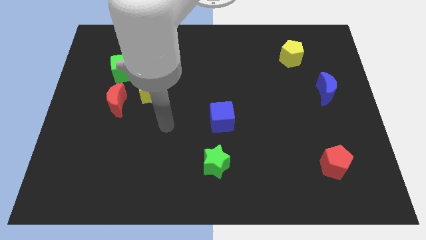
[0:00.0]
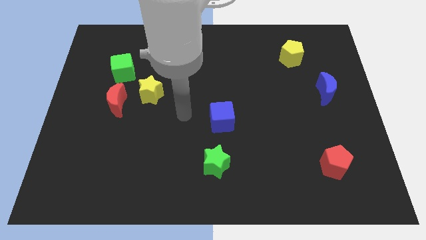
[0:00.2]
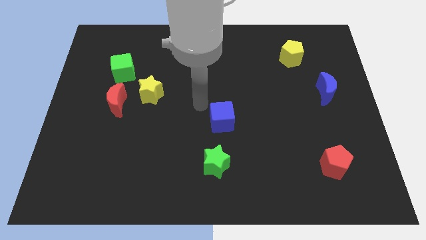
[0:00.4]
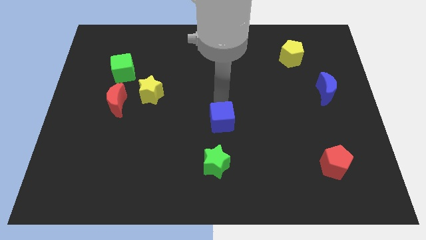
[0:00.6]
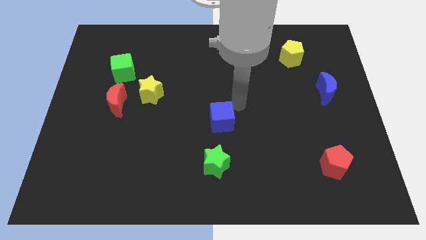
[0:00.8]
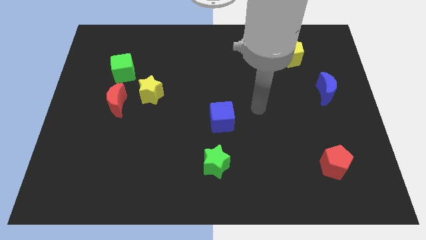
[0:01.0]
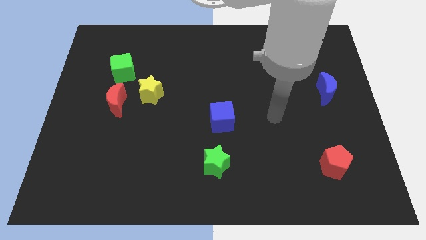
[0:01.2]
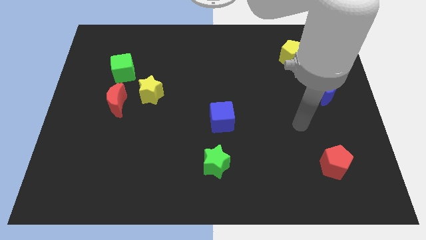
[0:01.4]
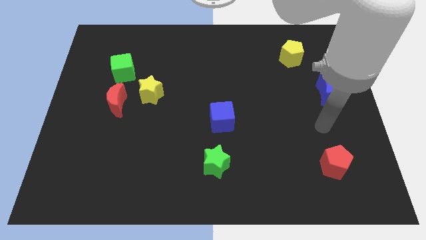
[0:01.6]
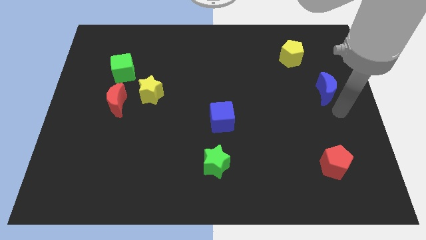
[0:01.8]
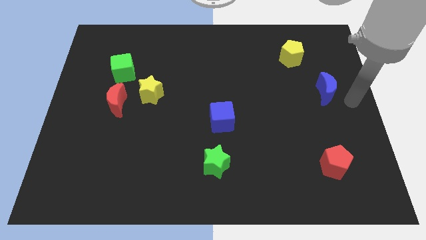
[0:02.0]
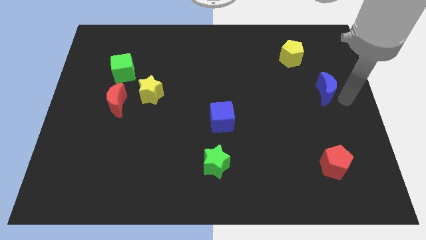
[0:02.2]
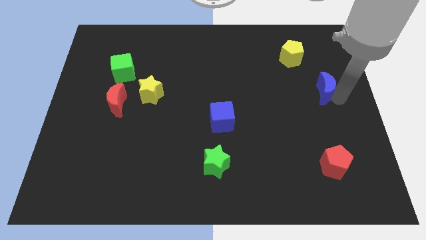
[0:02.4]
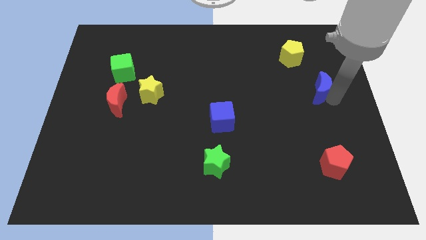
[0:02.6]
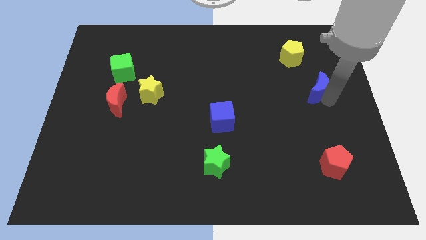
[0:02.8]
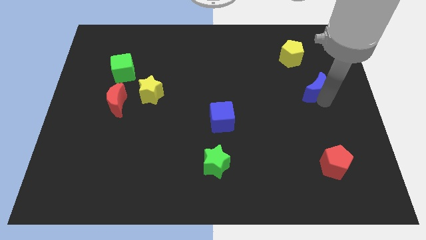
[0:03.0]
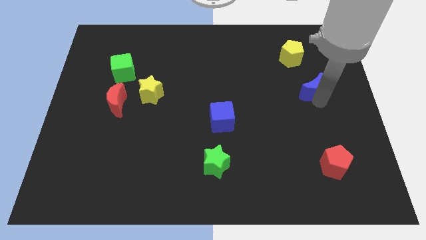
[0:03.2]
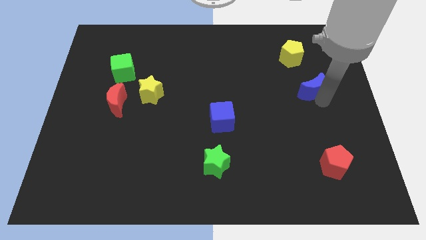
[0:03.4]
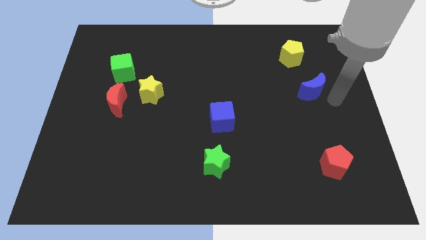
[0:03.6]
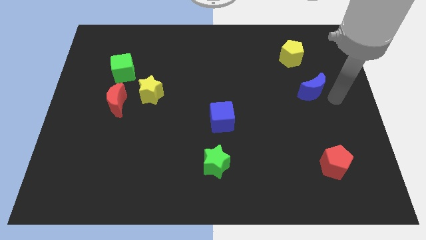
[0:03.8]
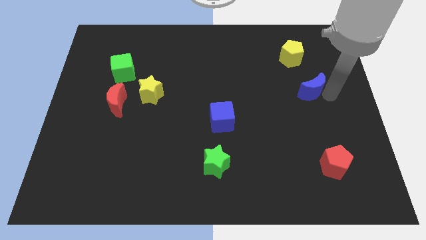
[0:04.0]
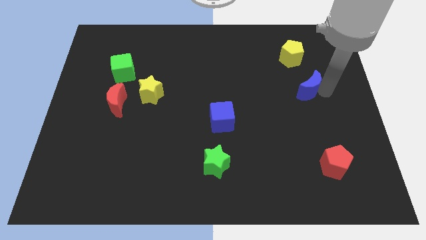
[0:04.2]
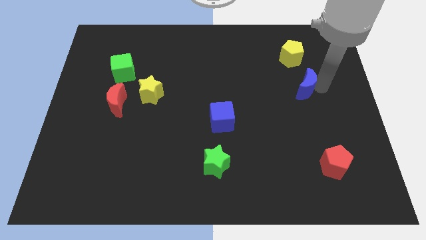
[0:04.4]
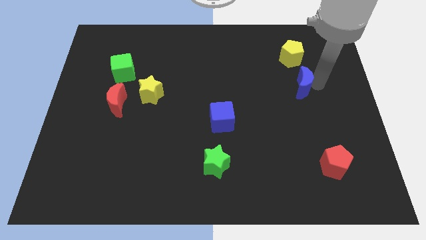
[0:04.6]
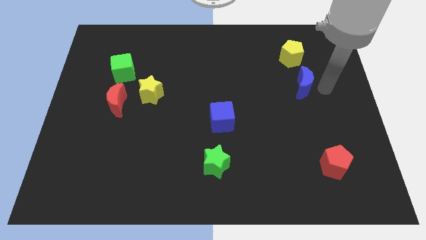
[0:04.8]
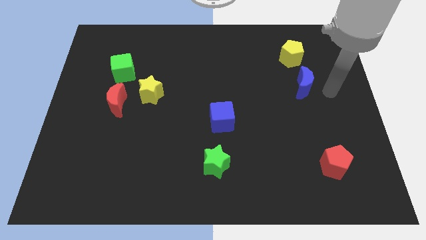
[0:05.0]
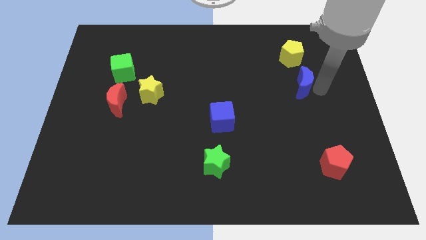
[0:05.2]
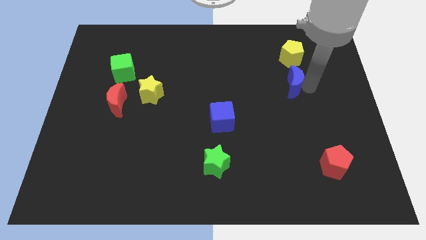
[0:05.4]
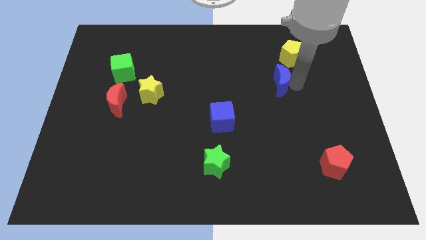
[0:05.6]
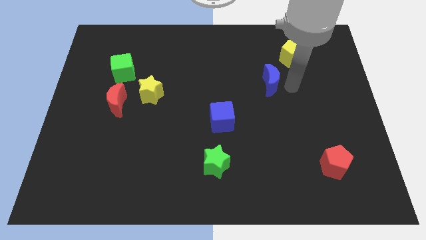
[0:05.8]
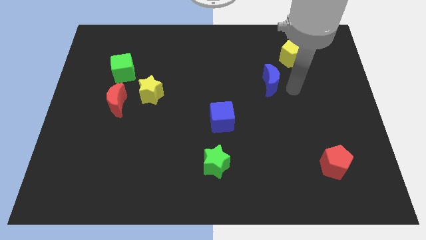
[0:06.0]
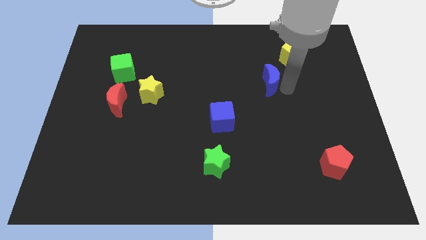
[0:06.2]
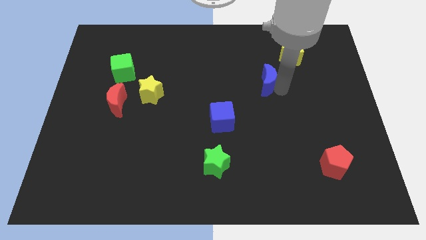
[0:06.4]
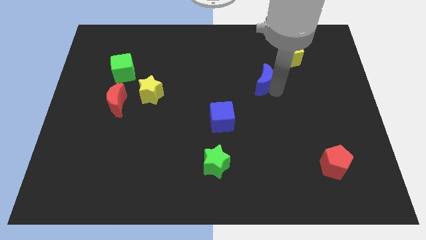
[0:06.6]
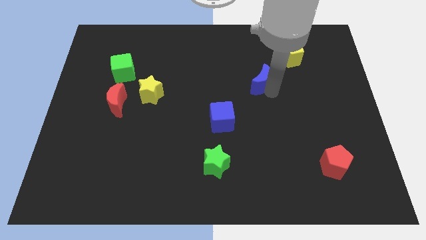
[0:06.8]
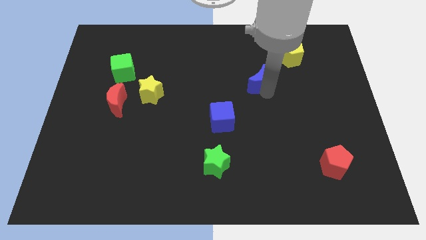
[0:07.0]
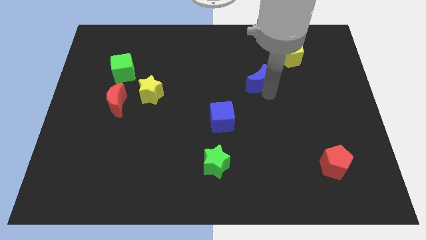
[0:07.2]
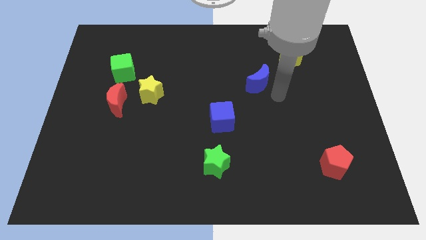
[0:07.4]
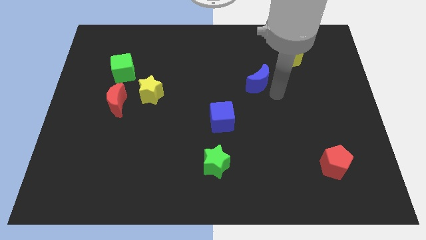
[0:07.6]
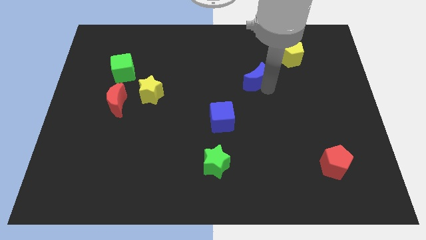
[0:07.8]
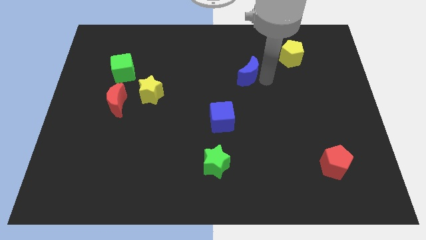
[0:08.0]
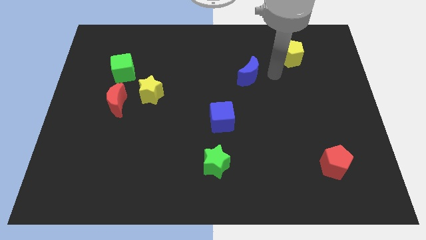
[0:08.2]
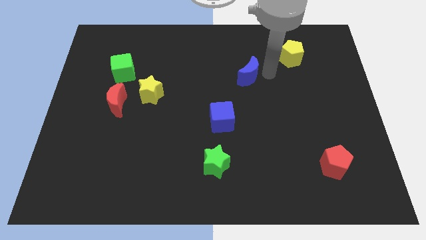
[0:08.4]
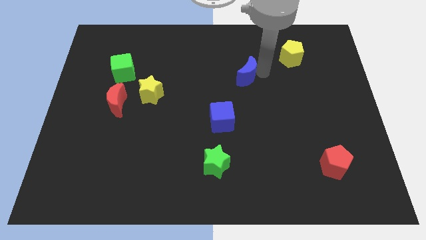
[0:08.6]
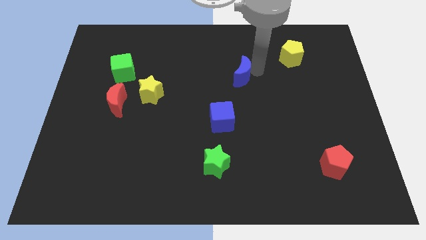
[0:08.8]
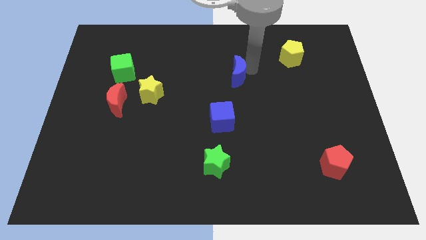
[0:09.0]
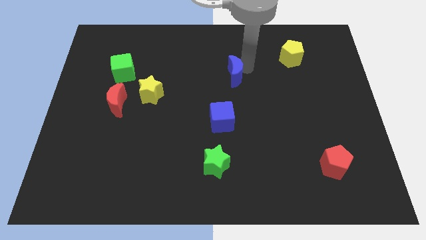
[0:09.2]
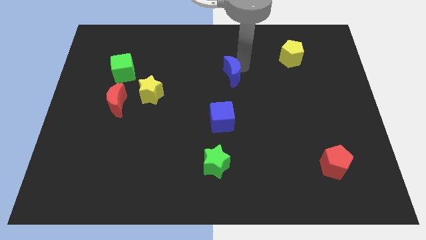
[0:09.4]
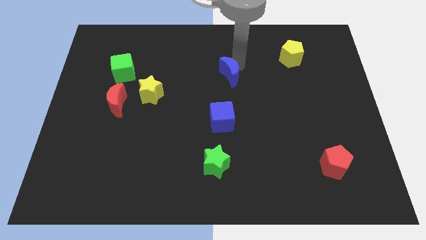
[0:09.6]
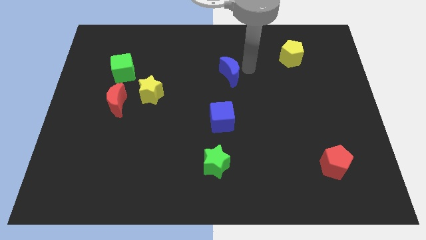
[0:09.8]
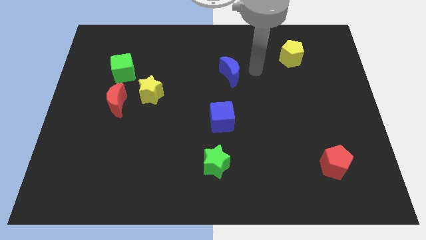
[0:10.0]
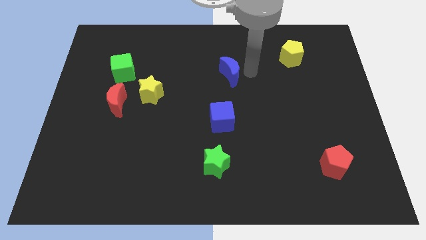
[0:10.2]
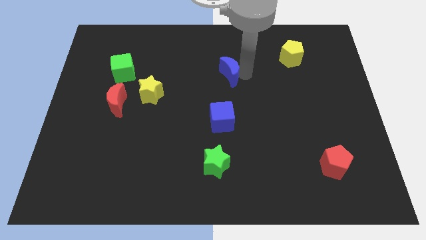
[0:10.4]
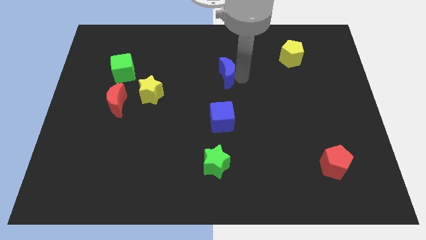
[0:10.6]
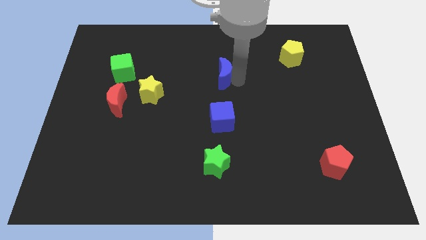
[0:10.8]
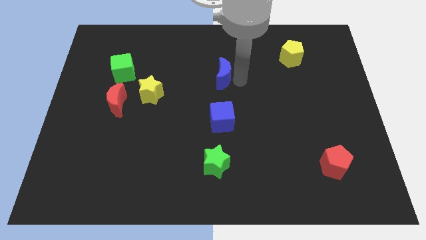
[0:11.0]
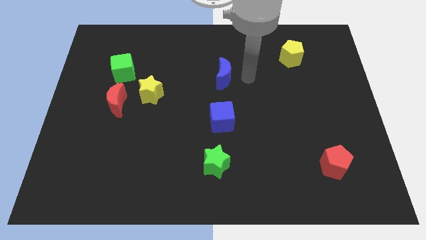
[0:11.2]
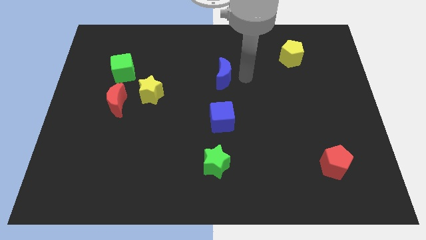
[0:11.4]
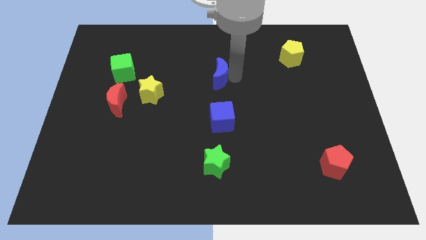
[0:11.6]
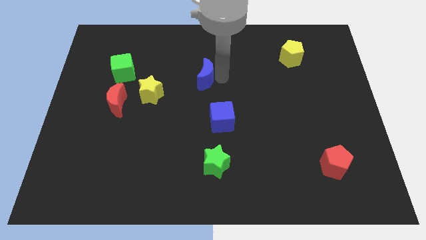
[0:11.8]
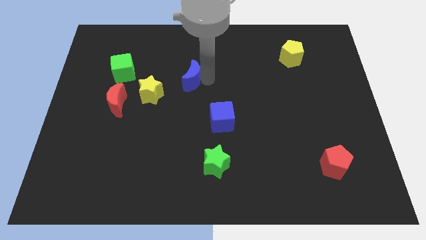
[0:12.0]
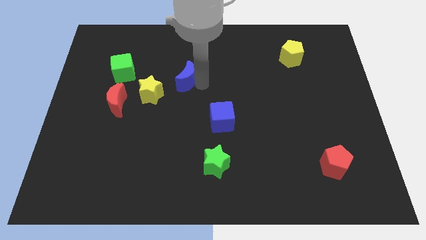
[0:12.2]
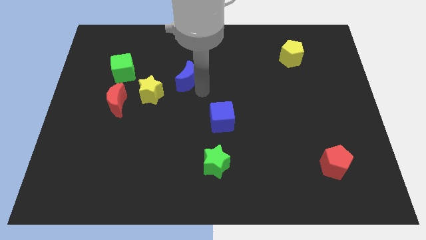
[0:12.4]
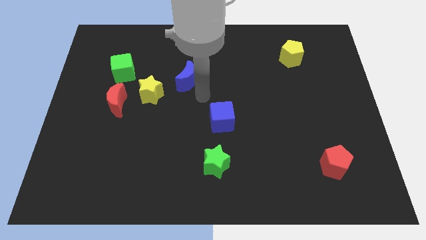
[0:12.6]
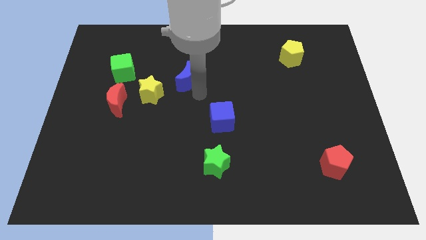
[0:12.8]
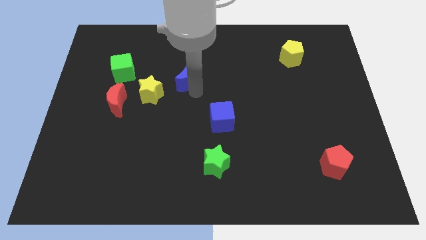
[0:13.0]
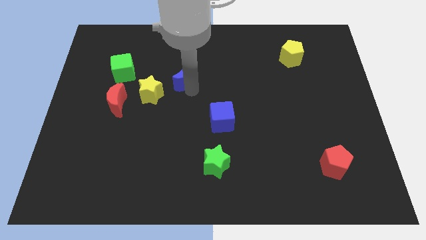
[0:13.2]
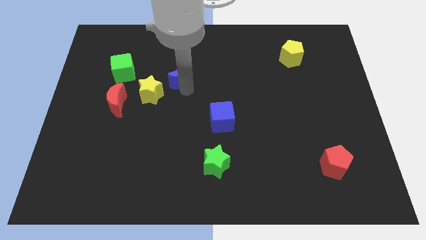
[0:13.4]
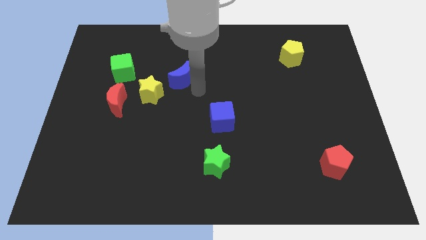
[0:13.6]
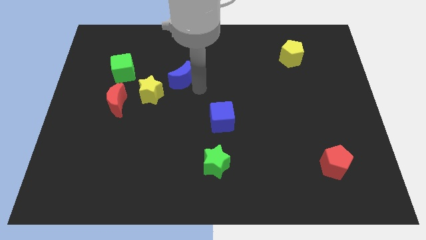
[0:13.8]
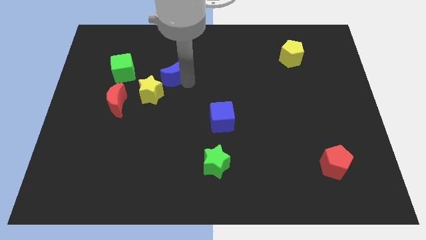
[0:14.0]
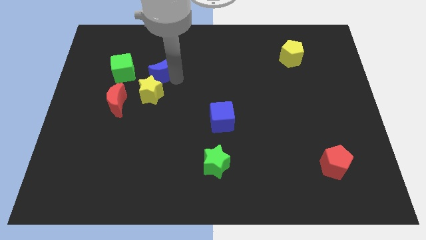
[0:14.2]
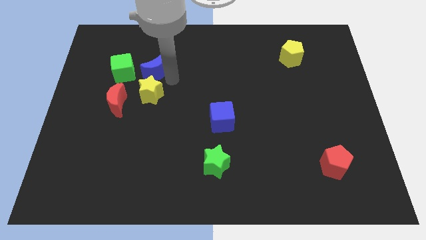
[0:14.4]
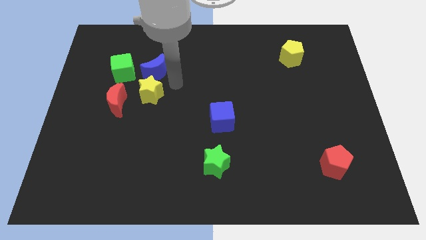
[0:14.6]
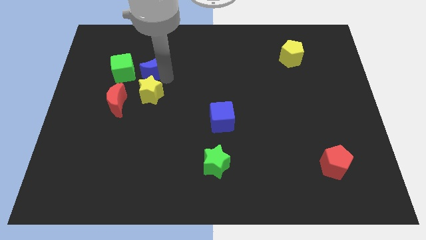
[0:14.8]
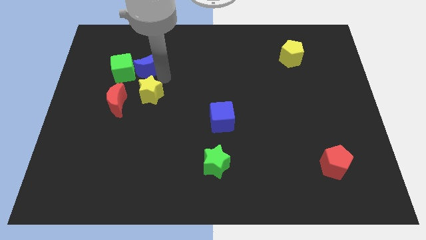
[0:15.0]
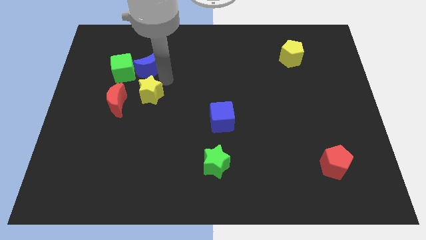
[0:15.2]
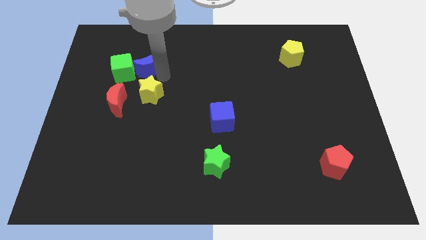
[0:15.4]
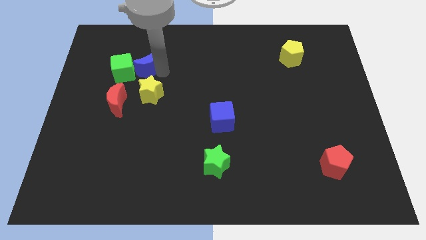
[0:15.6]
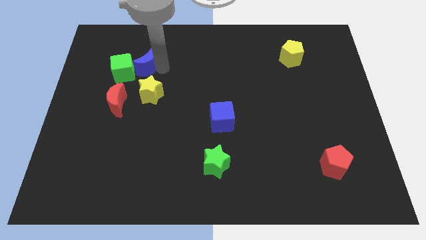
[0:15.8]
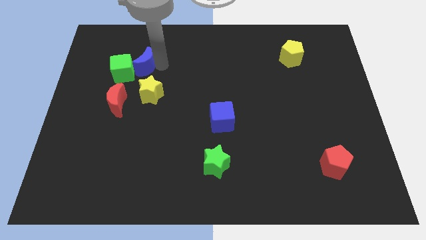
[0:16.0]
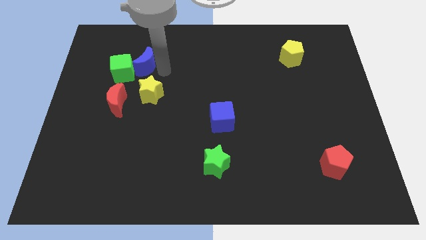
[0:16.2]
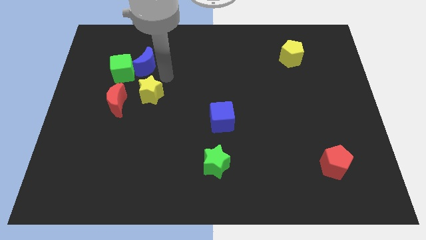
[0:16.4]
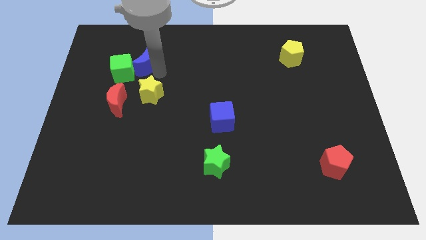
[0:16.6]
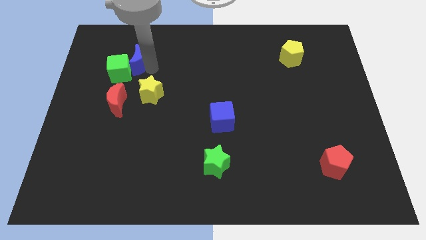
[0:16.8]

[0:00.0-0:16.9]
push the blue moon above the red moon
